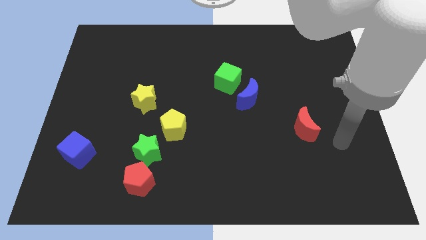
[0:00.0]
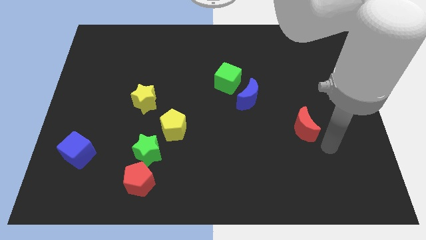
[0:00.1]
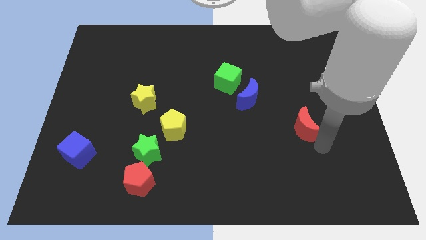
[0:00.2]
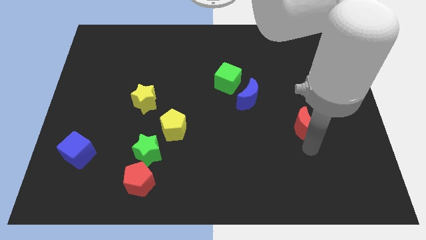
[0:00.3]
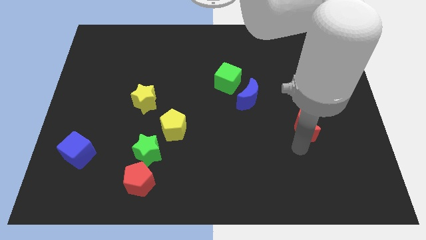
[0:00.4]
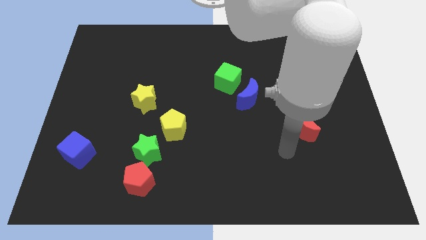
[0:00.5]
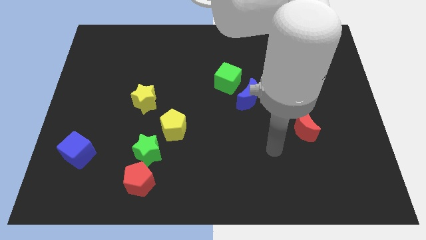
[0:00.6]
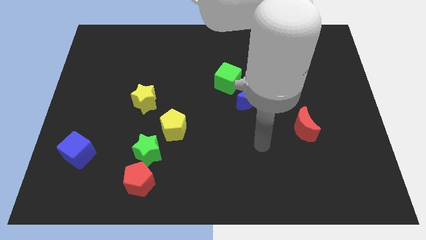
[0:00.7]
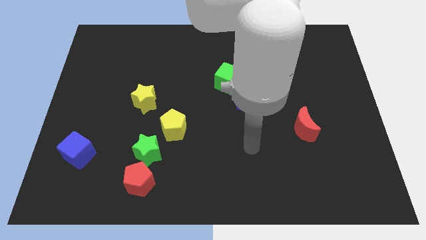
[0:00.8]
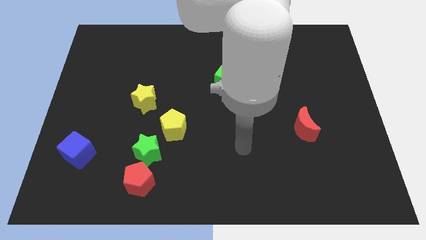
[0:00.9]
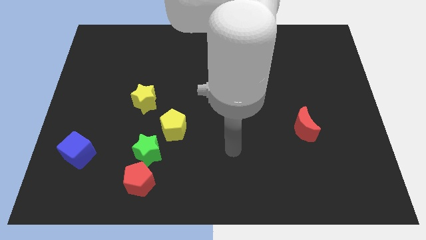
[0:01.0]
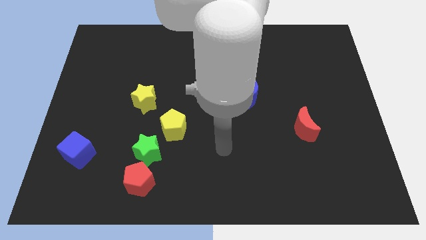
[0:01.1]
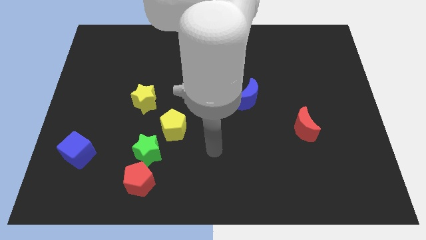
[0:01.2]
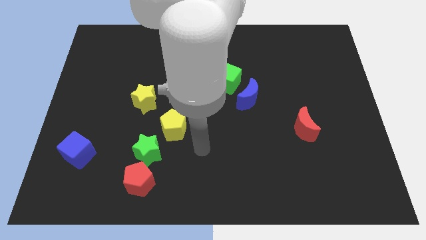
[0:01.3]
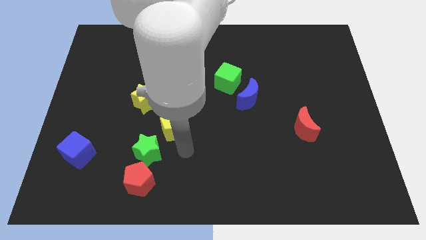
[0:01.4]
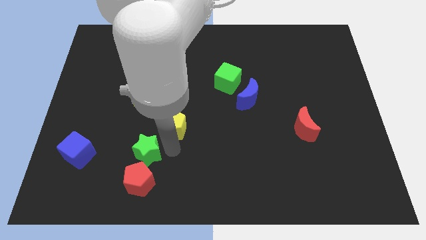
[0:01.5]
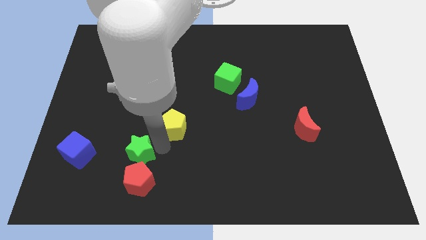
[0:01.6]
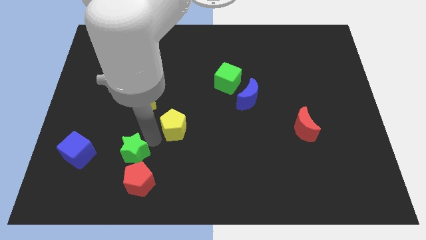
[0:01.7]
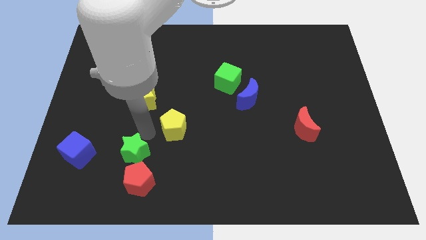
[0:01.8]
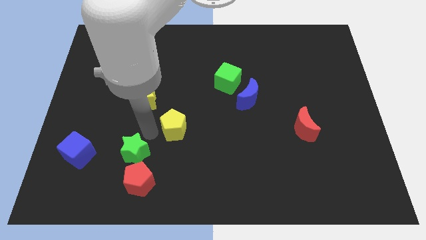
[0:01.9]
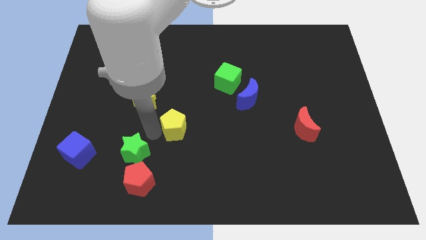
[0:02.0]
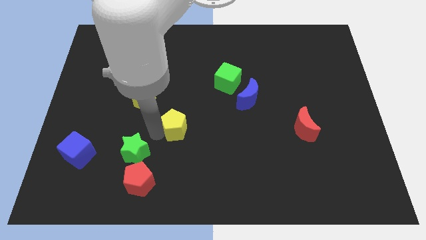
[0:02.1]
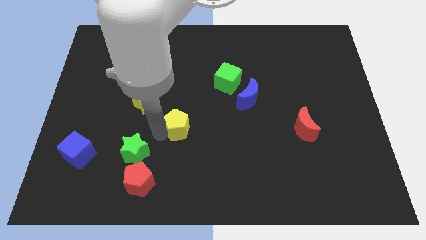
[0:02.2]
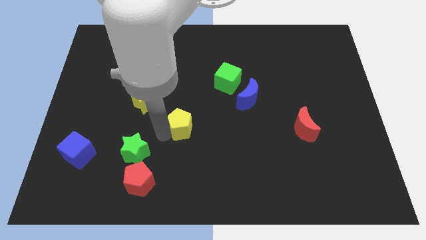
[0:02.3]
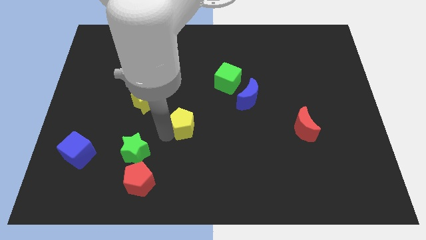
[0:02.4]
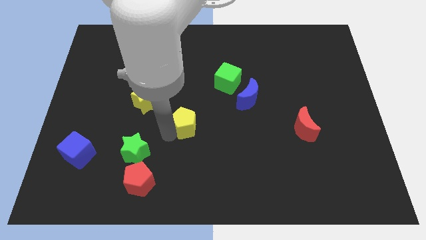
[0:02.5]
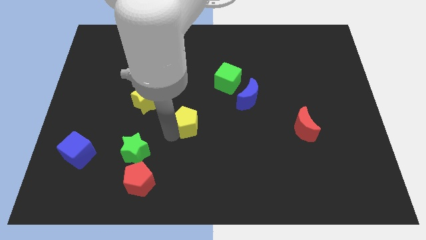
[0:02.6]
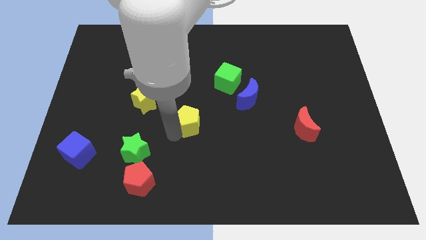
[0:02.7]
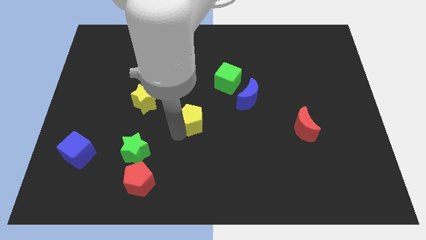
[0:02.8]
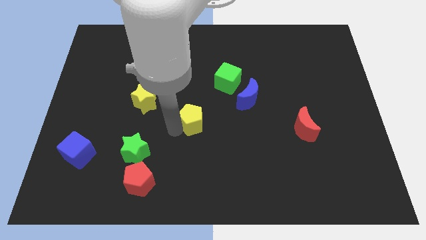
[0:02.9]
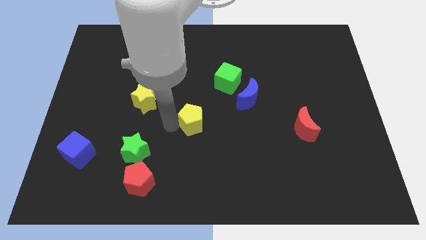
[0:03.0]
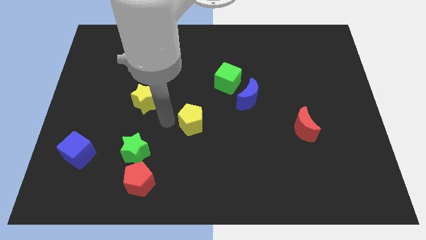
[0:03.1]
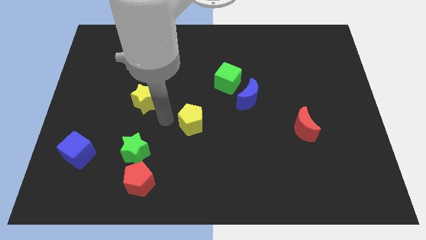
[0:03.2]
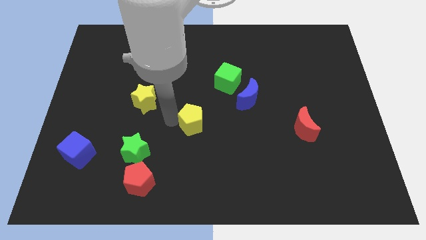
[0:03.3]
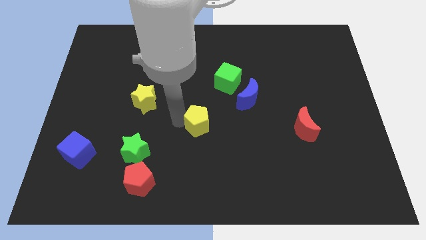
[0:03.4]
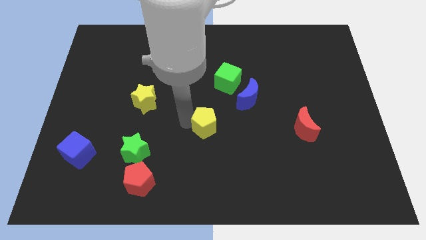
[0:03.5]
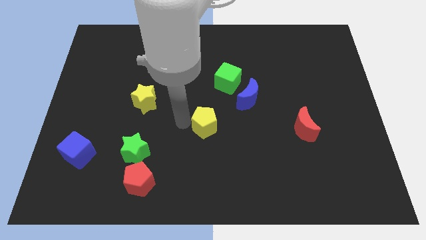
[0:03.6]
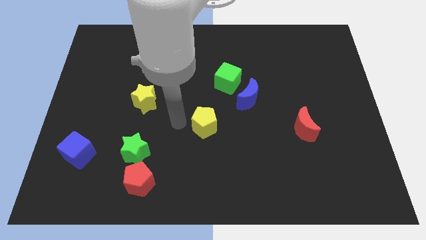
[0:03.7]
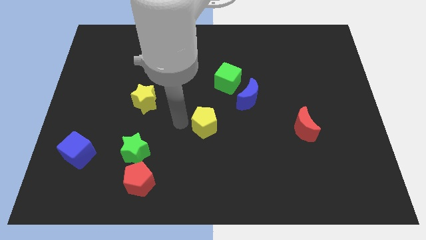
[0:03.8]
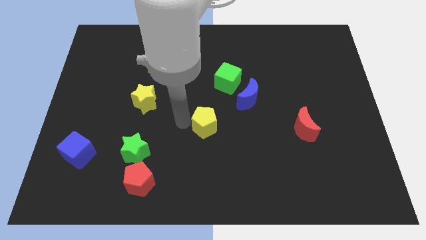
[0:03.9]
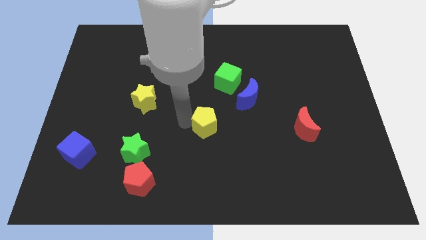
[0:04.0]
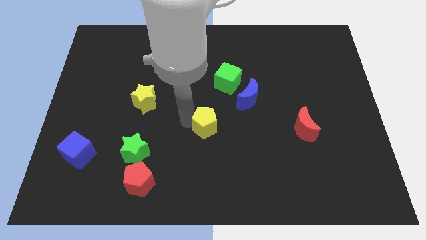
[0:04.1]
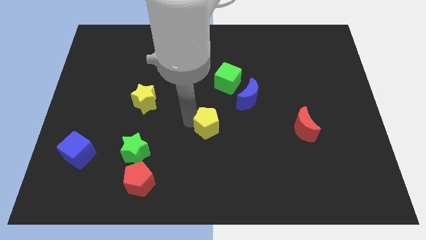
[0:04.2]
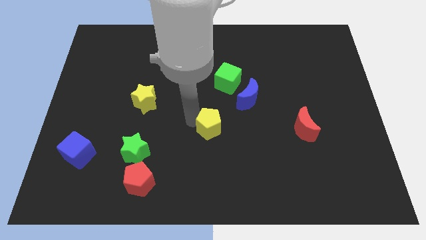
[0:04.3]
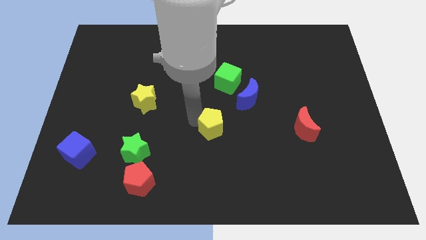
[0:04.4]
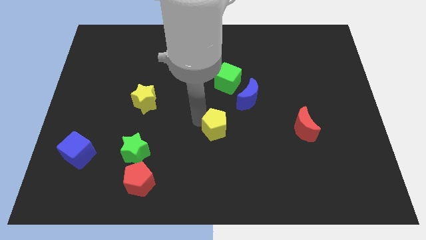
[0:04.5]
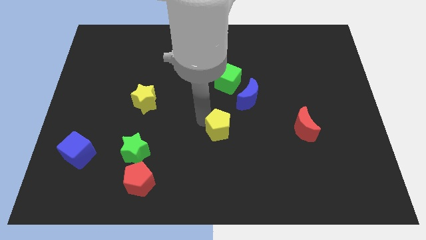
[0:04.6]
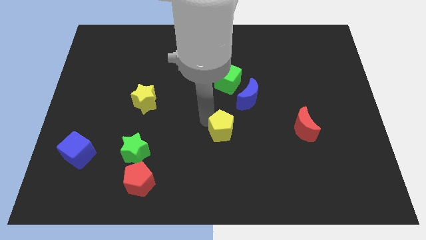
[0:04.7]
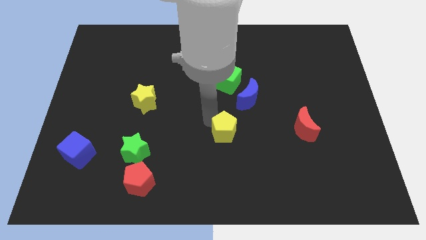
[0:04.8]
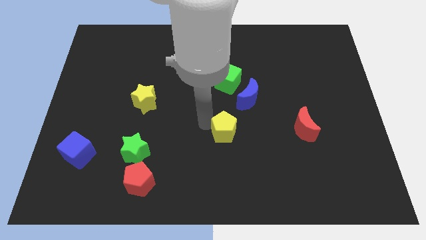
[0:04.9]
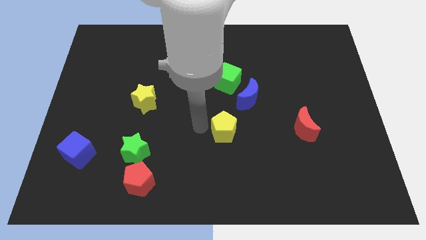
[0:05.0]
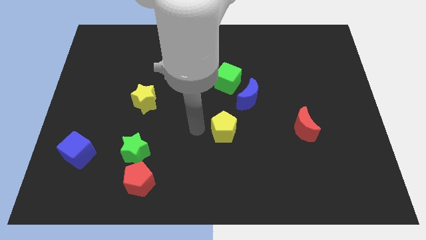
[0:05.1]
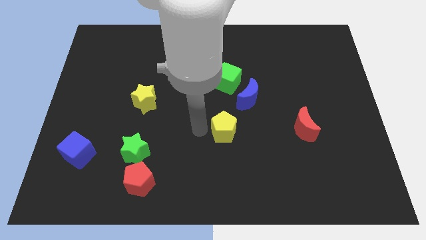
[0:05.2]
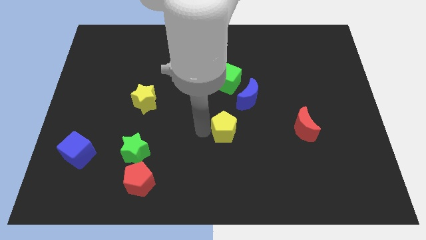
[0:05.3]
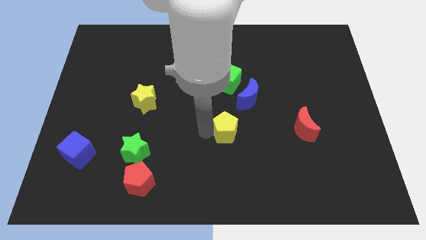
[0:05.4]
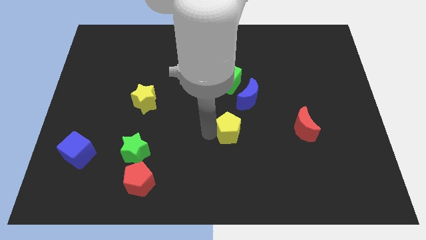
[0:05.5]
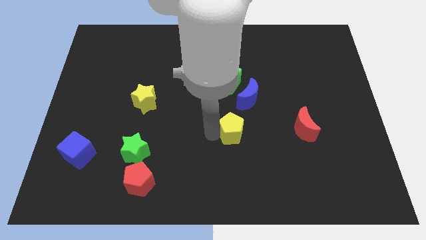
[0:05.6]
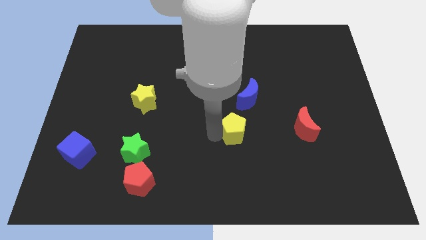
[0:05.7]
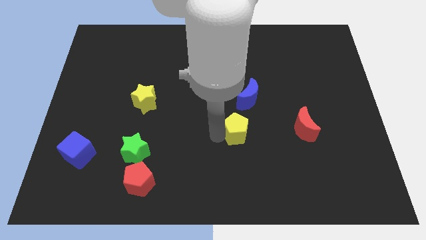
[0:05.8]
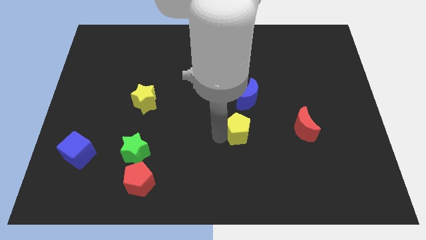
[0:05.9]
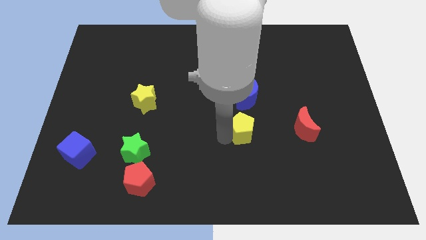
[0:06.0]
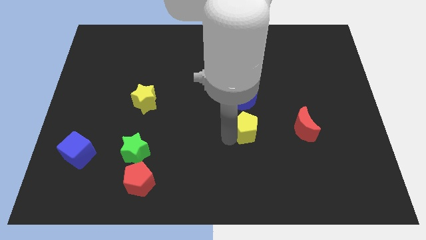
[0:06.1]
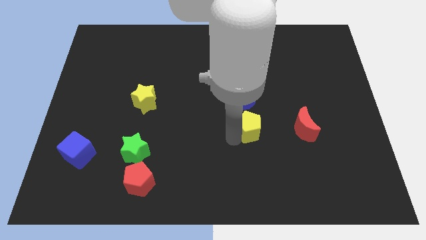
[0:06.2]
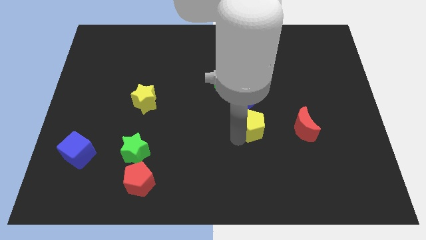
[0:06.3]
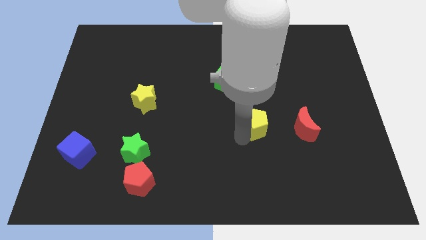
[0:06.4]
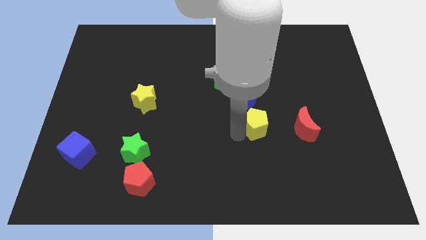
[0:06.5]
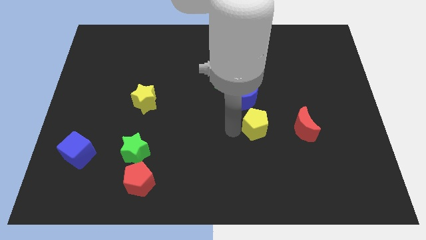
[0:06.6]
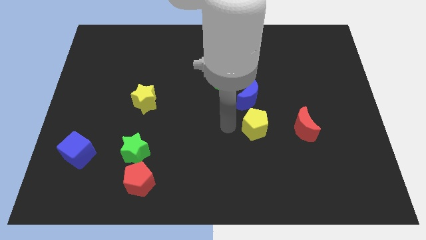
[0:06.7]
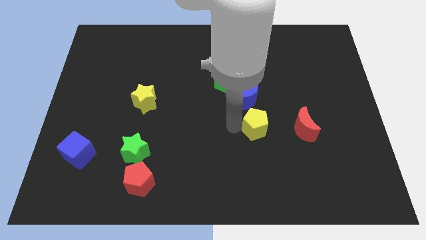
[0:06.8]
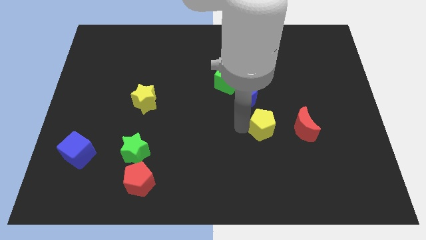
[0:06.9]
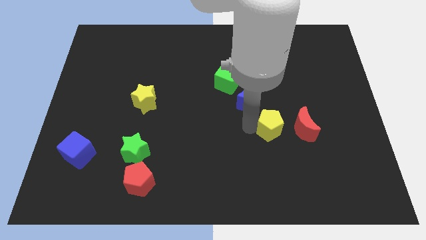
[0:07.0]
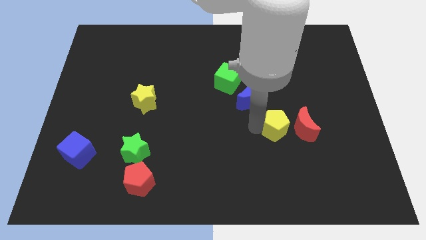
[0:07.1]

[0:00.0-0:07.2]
put the yellow pentagon to the red moon
